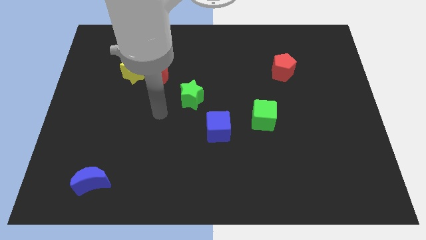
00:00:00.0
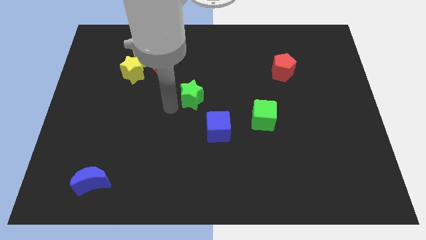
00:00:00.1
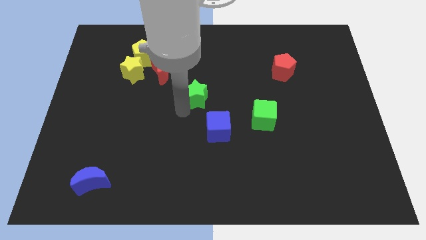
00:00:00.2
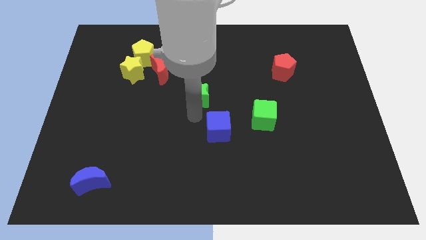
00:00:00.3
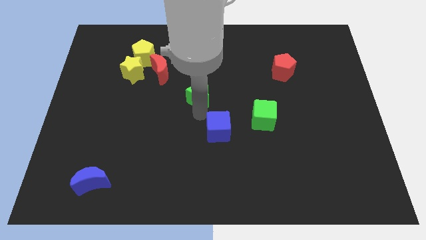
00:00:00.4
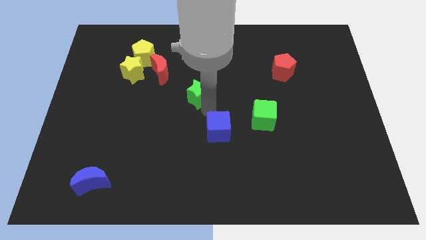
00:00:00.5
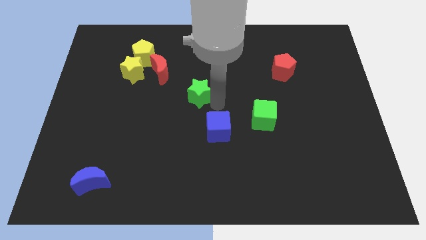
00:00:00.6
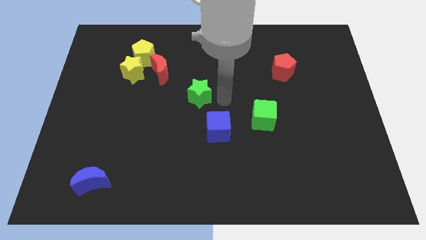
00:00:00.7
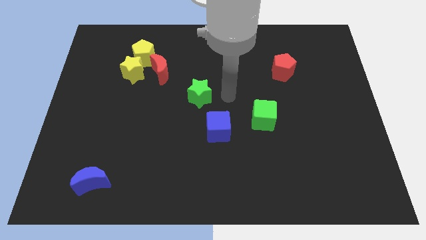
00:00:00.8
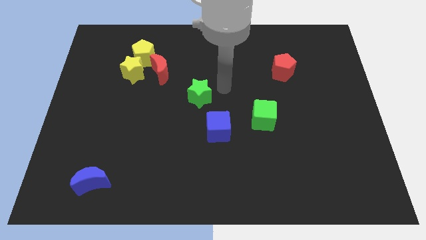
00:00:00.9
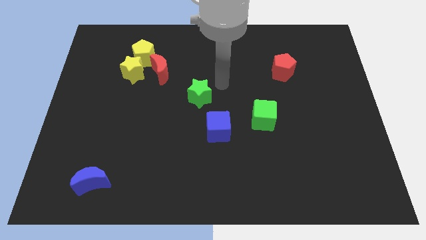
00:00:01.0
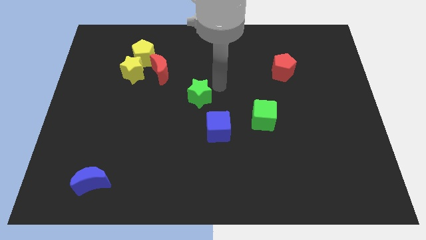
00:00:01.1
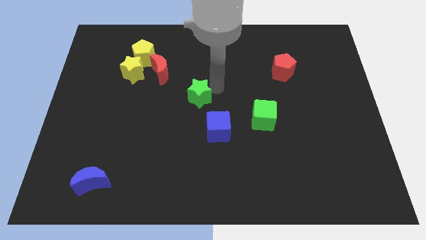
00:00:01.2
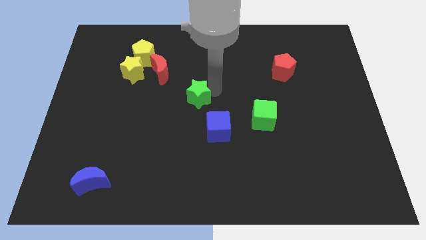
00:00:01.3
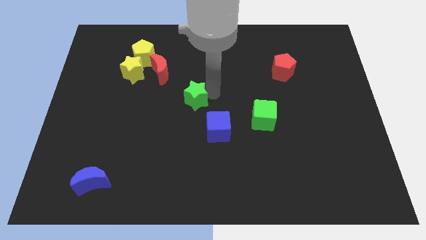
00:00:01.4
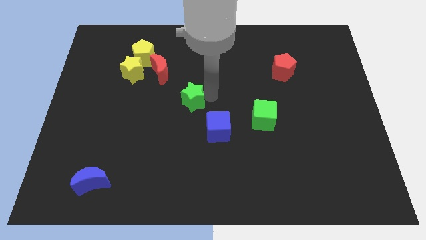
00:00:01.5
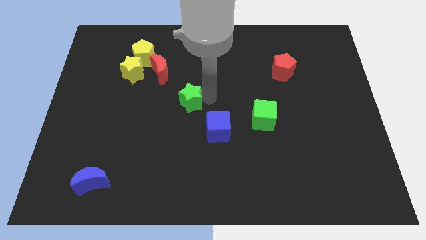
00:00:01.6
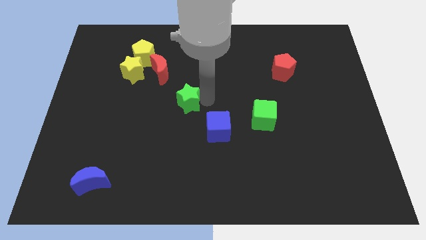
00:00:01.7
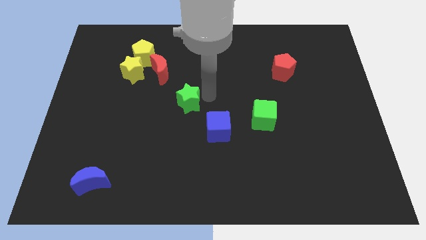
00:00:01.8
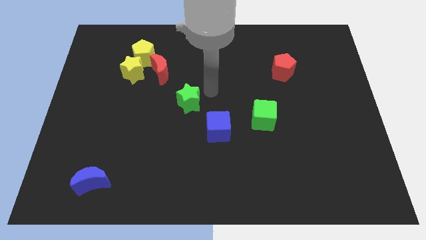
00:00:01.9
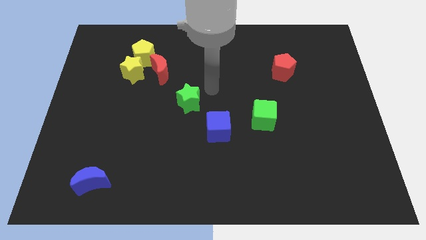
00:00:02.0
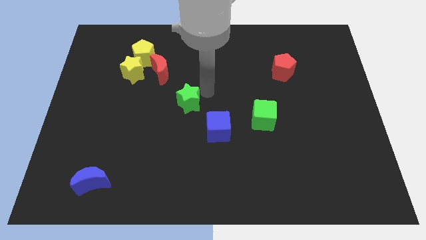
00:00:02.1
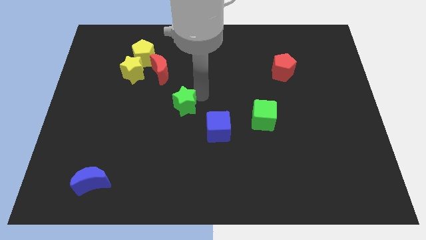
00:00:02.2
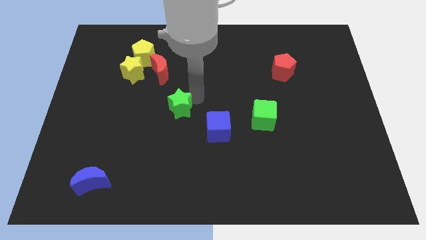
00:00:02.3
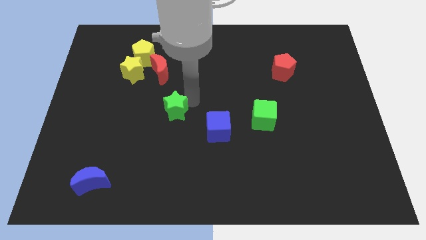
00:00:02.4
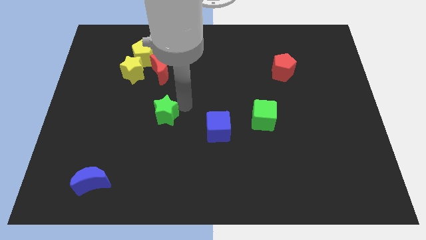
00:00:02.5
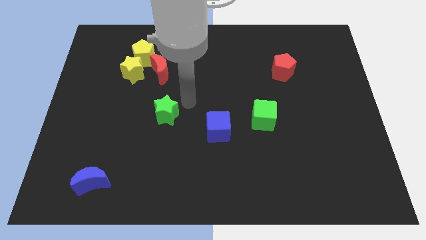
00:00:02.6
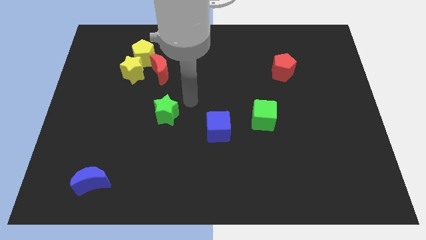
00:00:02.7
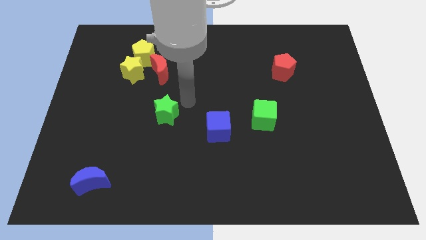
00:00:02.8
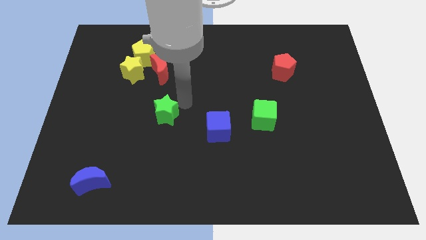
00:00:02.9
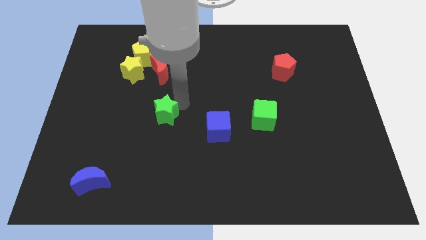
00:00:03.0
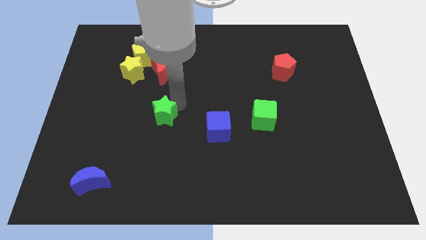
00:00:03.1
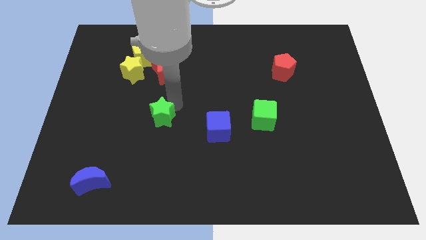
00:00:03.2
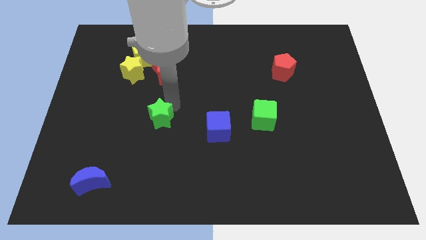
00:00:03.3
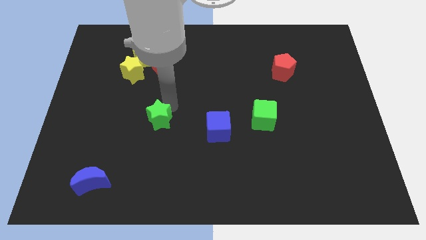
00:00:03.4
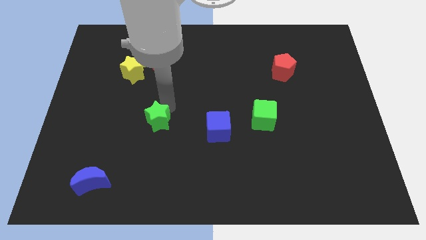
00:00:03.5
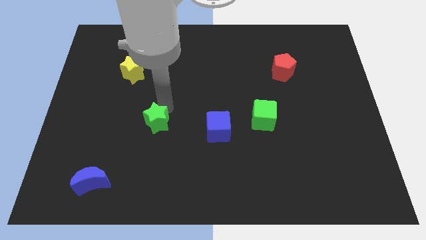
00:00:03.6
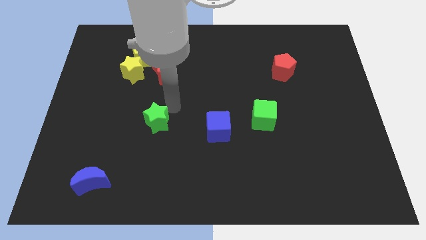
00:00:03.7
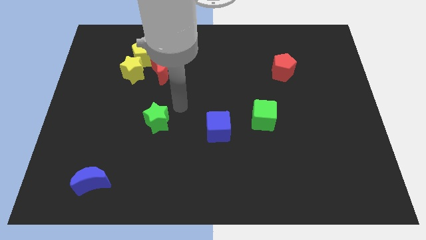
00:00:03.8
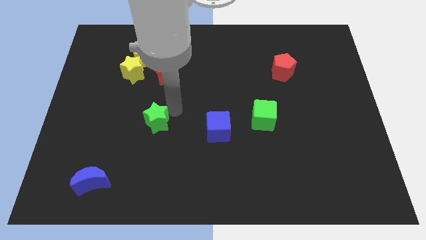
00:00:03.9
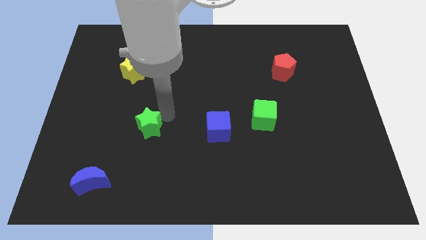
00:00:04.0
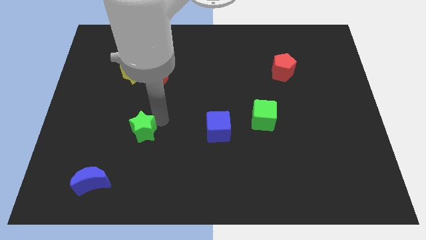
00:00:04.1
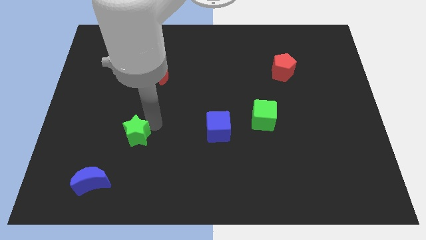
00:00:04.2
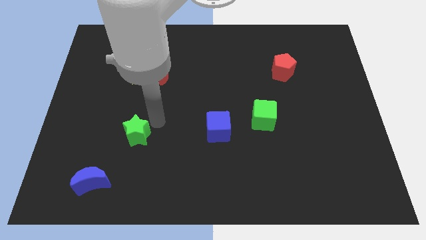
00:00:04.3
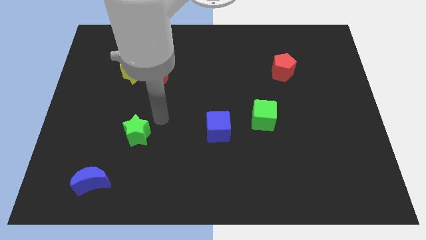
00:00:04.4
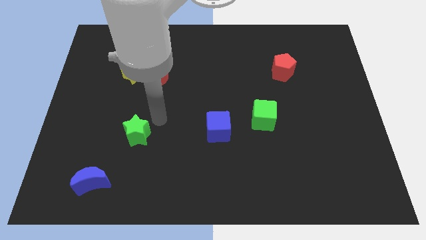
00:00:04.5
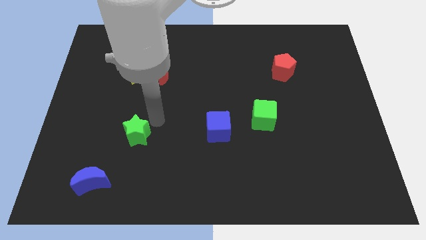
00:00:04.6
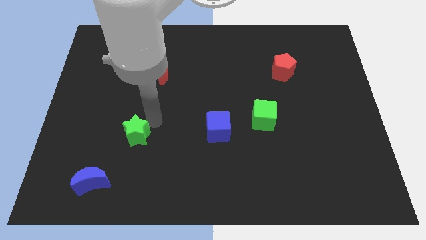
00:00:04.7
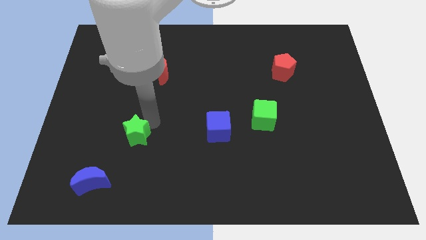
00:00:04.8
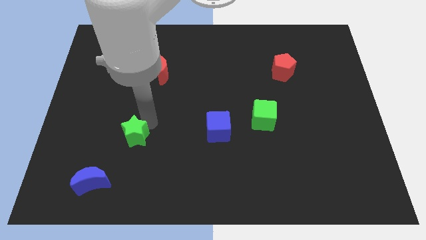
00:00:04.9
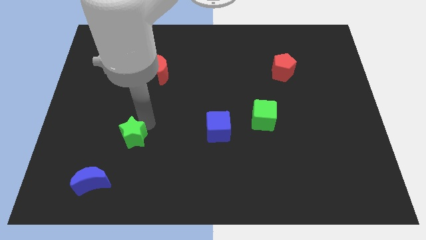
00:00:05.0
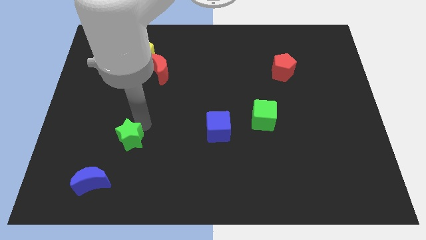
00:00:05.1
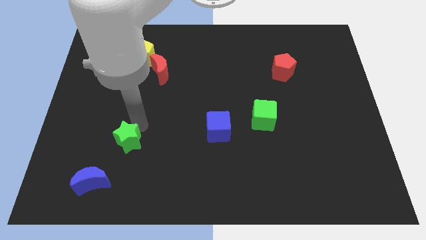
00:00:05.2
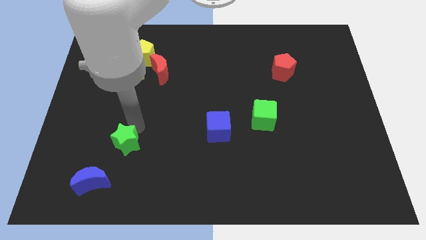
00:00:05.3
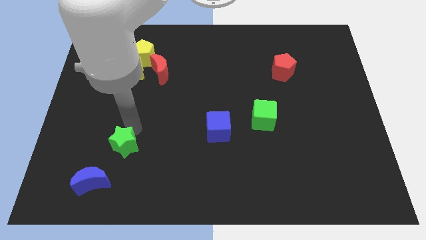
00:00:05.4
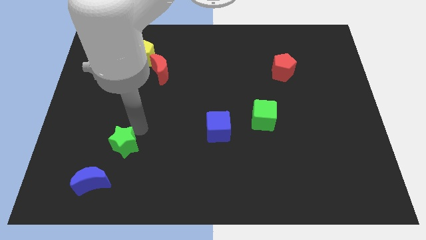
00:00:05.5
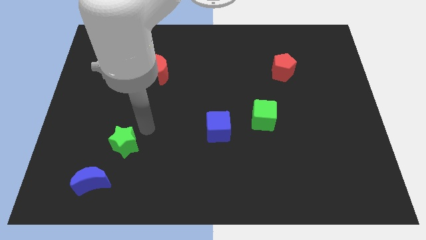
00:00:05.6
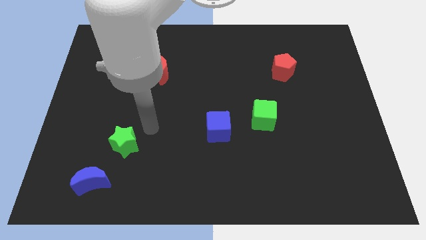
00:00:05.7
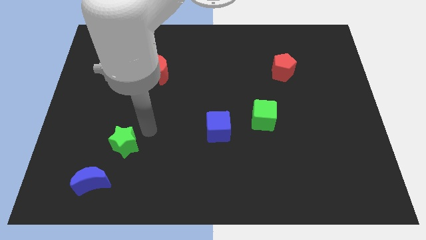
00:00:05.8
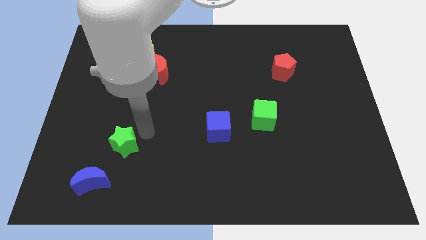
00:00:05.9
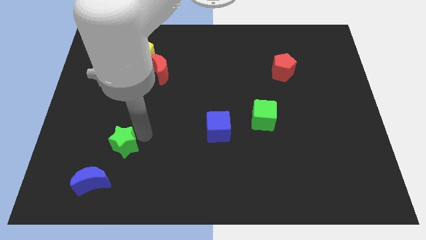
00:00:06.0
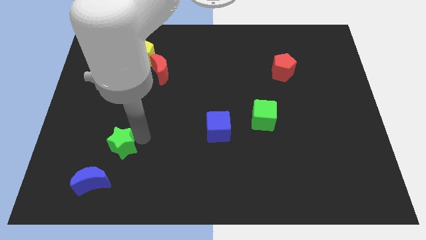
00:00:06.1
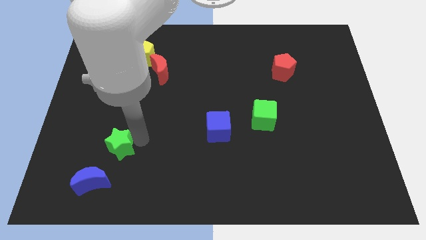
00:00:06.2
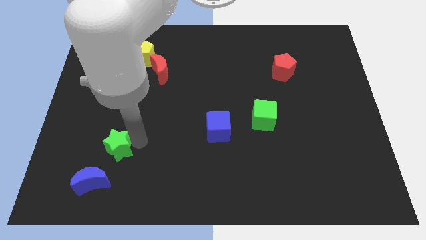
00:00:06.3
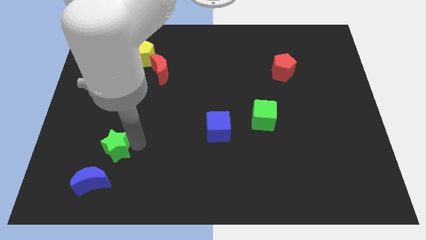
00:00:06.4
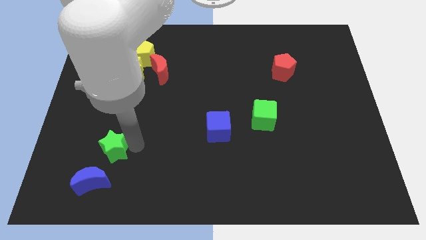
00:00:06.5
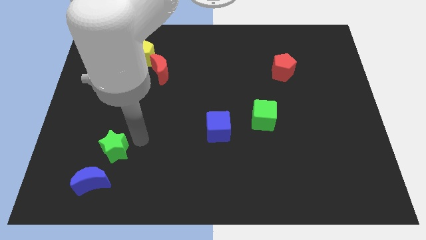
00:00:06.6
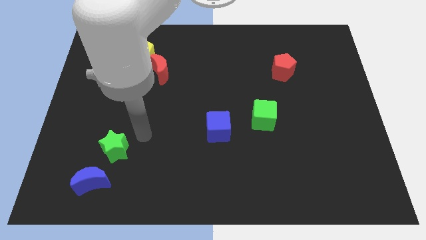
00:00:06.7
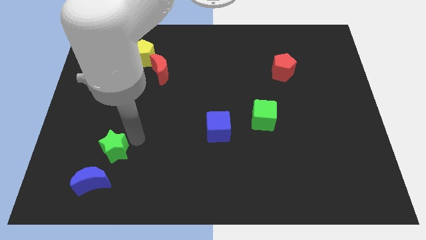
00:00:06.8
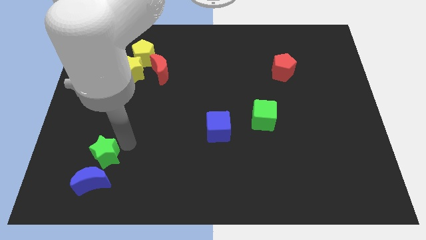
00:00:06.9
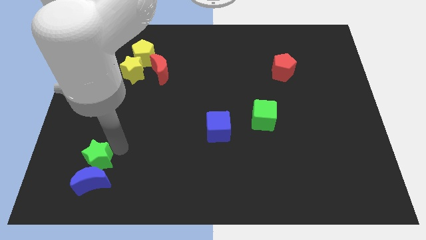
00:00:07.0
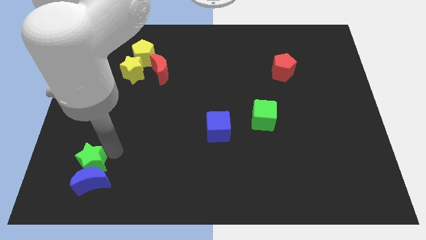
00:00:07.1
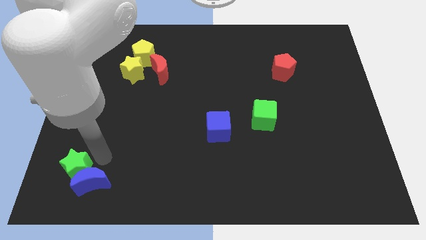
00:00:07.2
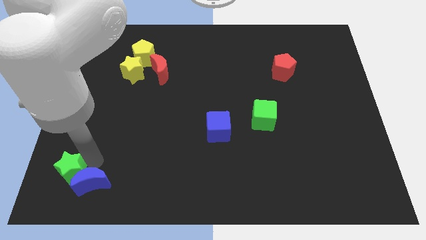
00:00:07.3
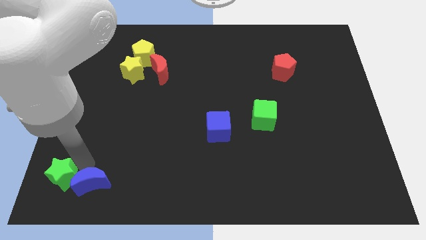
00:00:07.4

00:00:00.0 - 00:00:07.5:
push the green star to the lower left corner
